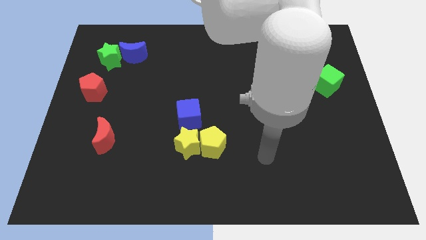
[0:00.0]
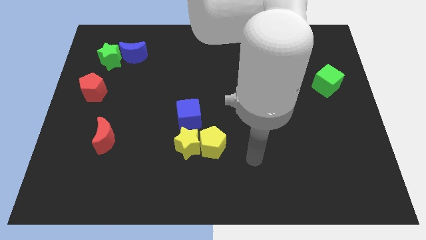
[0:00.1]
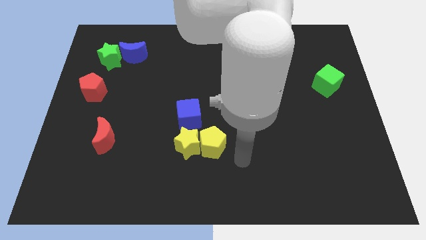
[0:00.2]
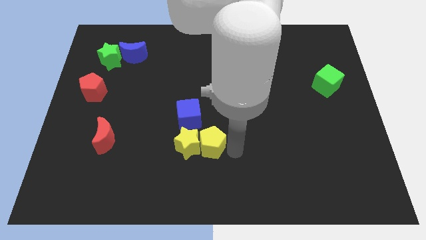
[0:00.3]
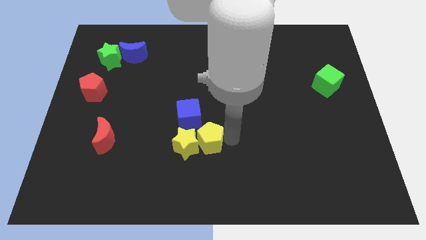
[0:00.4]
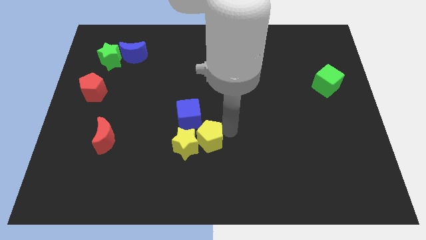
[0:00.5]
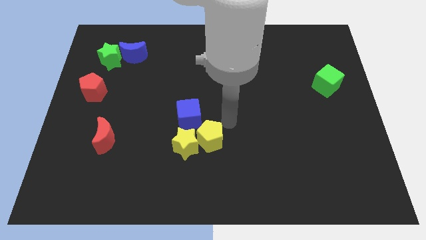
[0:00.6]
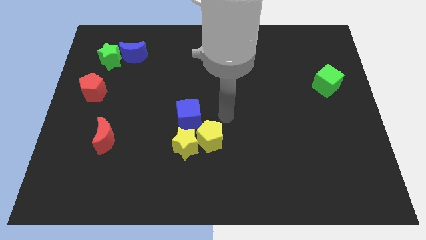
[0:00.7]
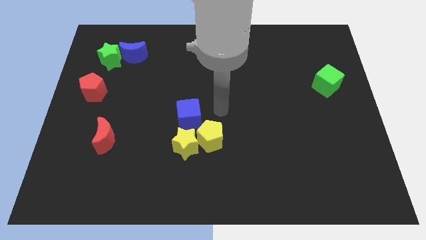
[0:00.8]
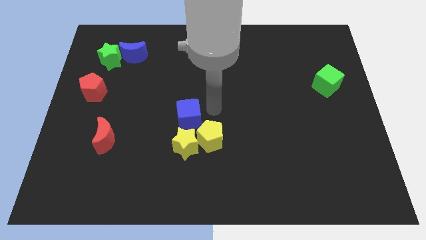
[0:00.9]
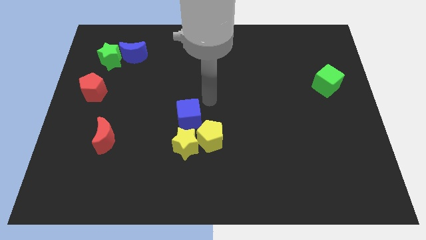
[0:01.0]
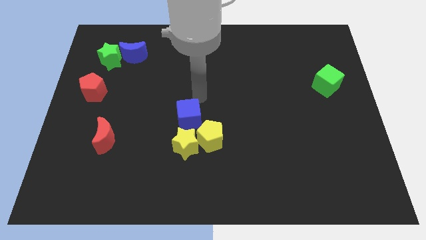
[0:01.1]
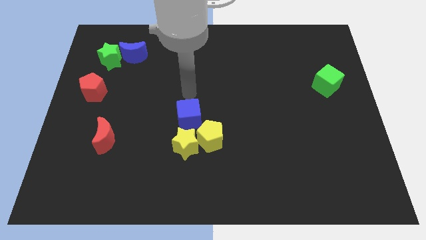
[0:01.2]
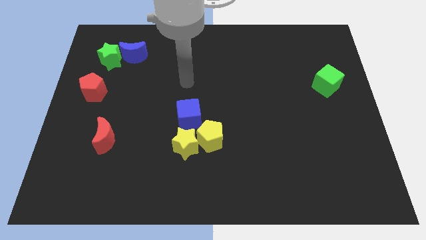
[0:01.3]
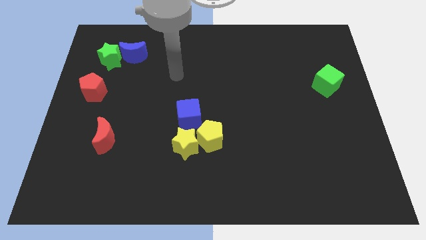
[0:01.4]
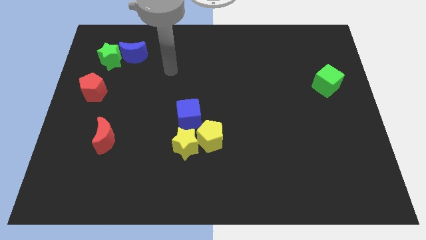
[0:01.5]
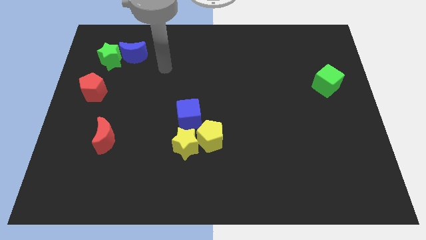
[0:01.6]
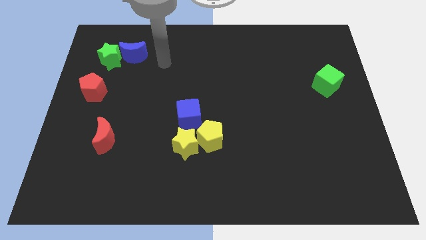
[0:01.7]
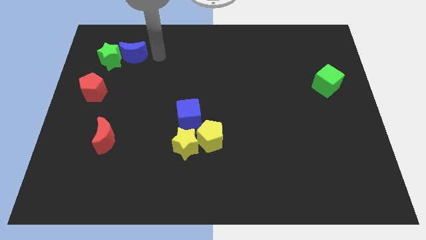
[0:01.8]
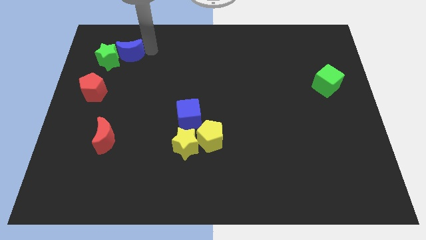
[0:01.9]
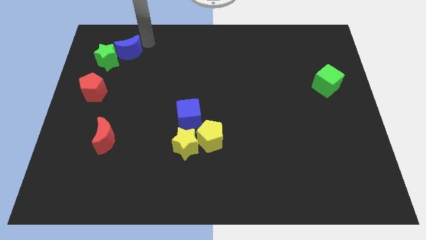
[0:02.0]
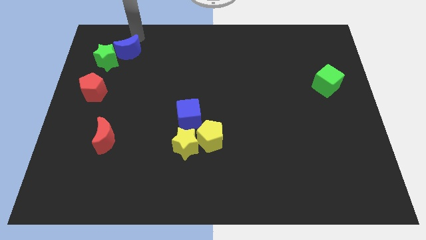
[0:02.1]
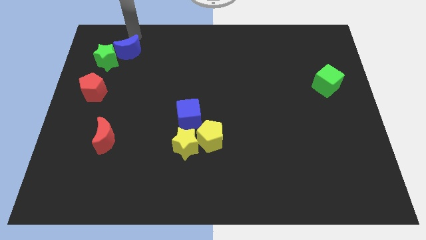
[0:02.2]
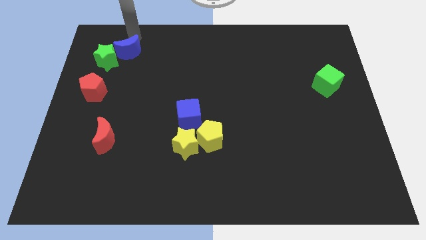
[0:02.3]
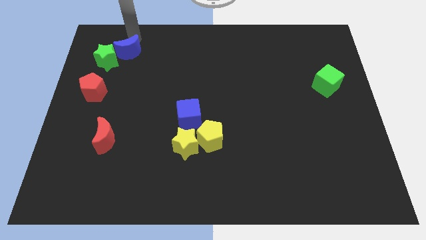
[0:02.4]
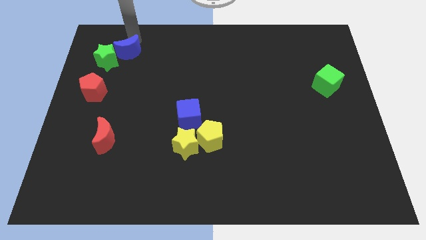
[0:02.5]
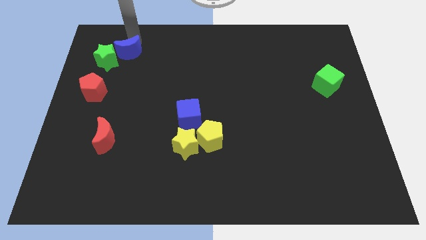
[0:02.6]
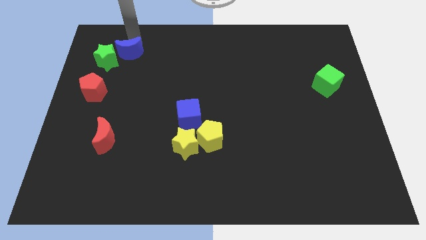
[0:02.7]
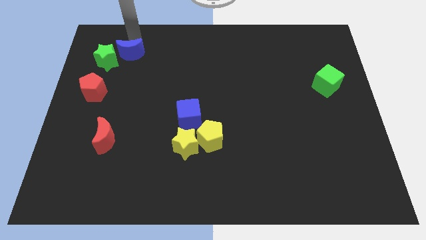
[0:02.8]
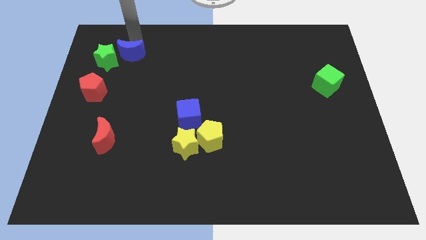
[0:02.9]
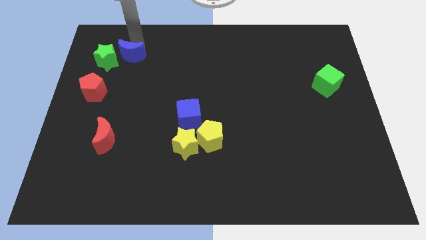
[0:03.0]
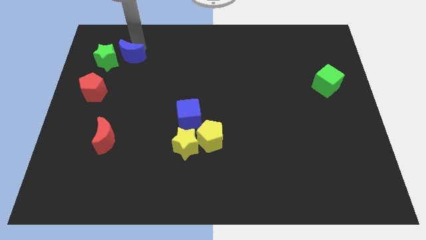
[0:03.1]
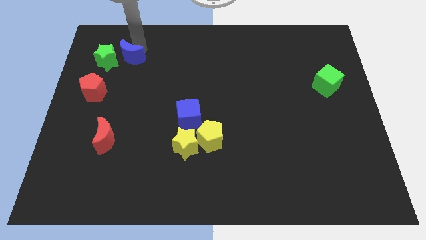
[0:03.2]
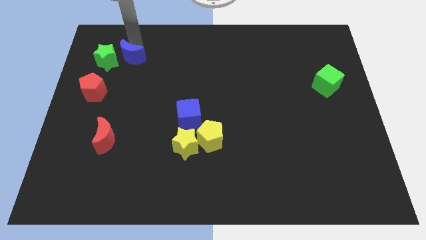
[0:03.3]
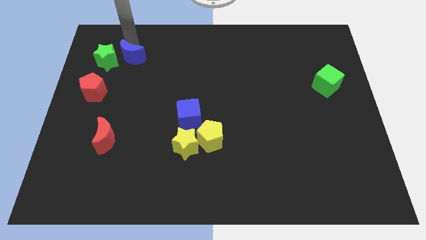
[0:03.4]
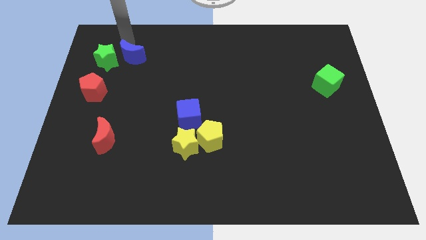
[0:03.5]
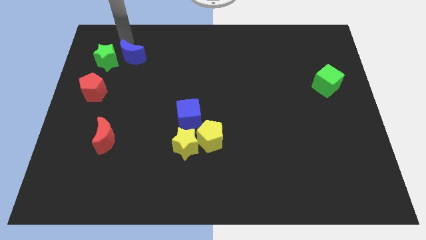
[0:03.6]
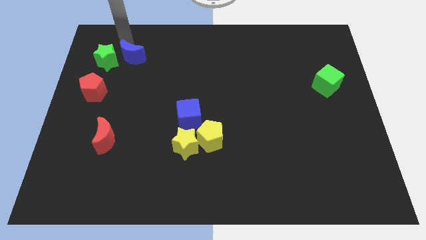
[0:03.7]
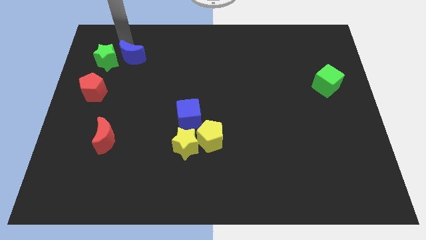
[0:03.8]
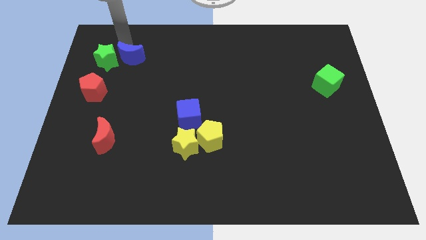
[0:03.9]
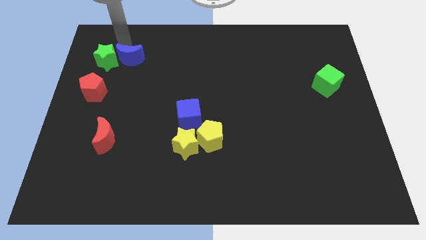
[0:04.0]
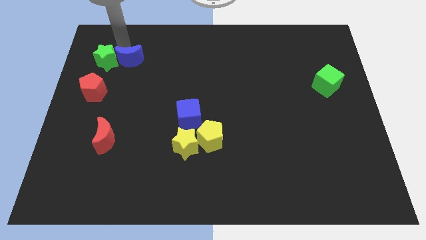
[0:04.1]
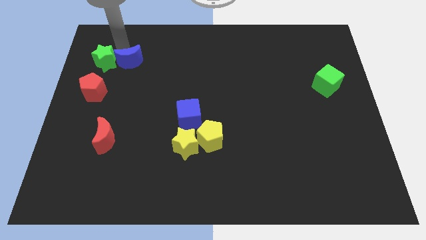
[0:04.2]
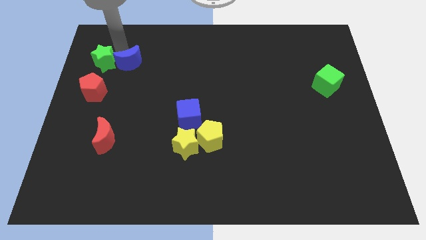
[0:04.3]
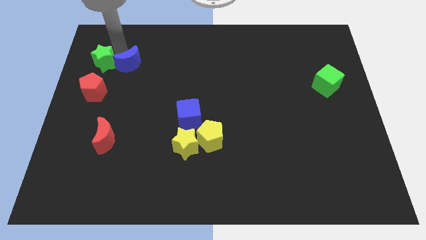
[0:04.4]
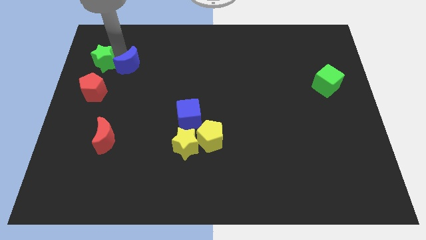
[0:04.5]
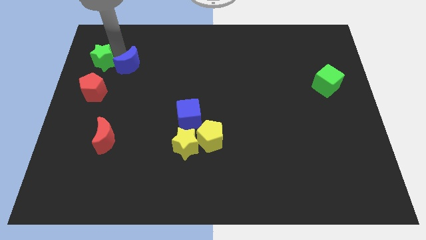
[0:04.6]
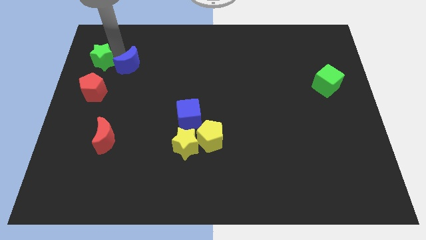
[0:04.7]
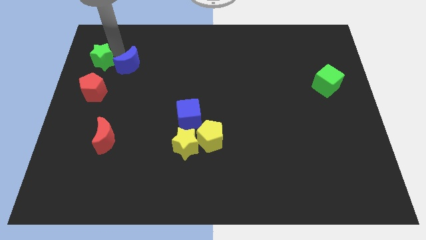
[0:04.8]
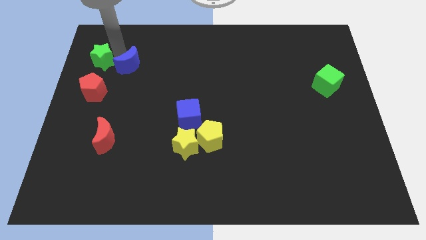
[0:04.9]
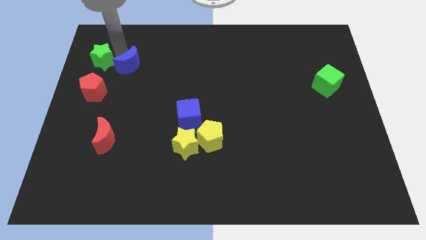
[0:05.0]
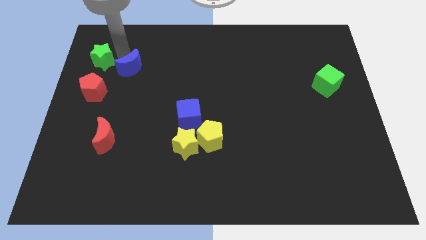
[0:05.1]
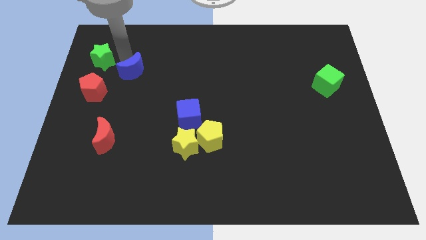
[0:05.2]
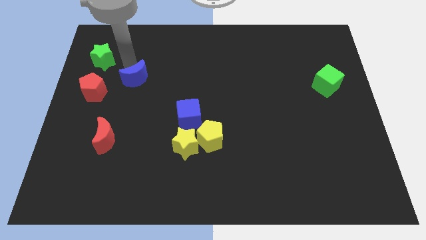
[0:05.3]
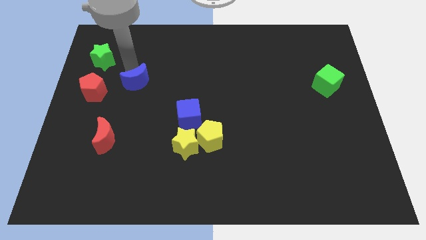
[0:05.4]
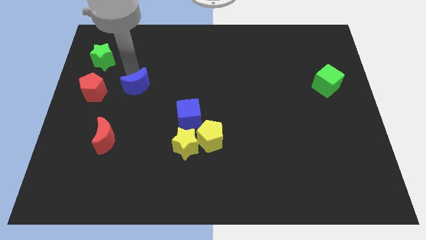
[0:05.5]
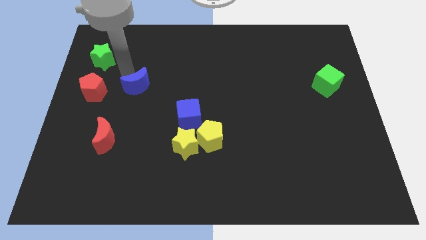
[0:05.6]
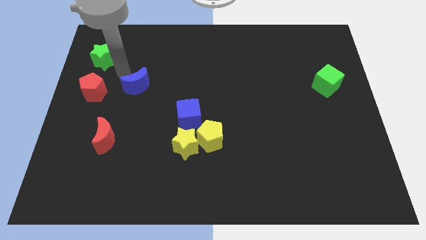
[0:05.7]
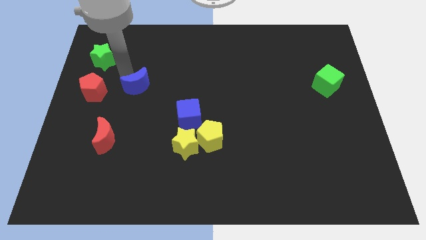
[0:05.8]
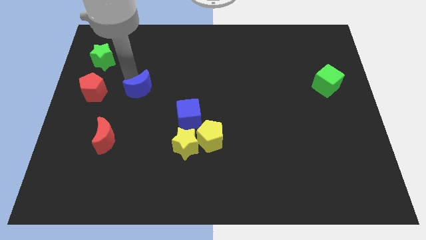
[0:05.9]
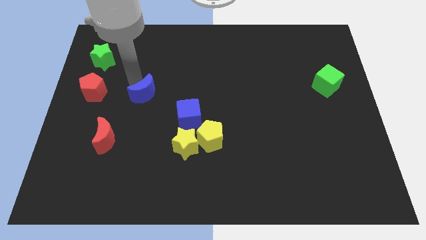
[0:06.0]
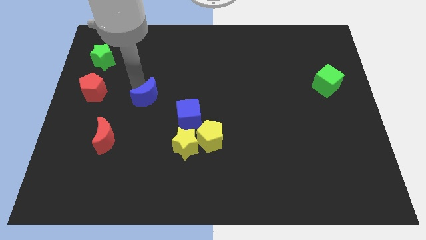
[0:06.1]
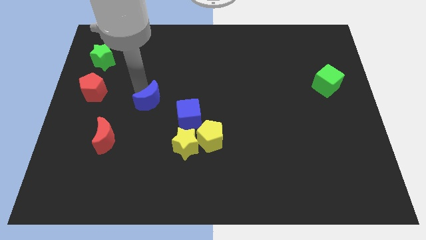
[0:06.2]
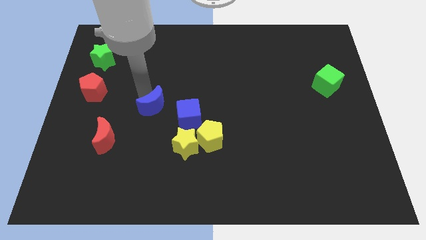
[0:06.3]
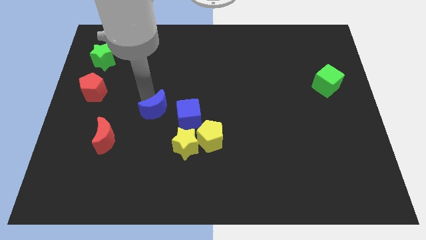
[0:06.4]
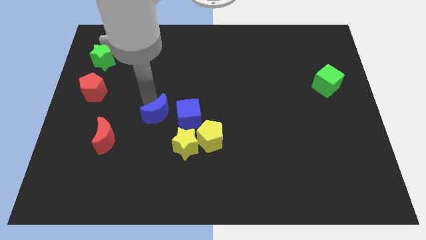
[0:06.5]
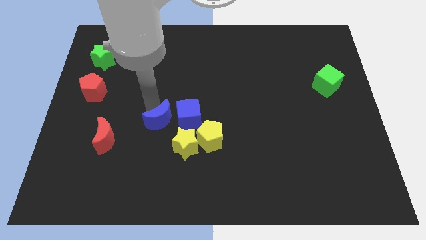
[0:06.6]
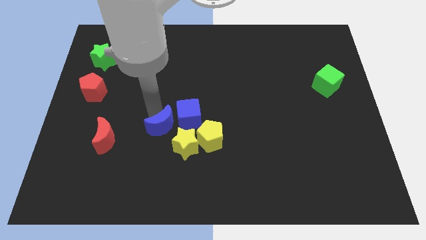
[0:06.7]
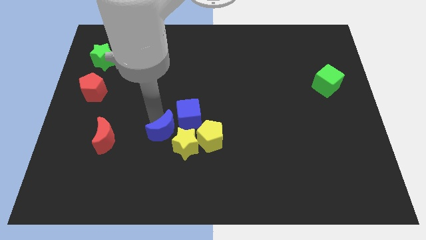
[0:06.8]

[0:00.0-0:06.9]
push the blue moon close to the yellow star
